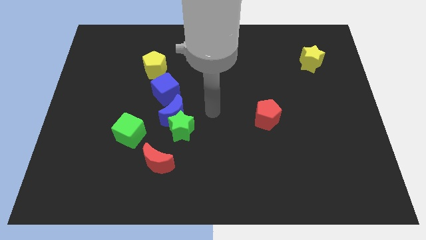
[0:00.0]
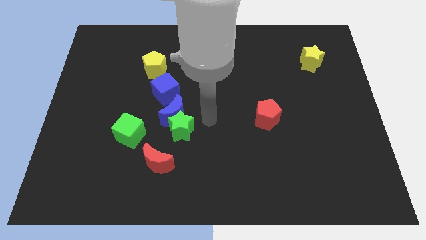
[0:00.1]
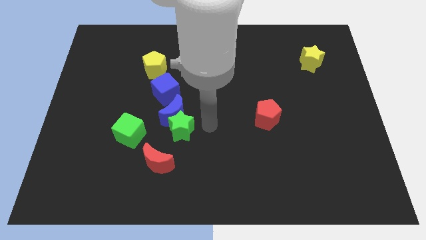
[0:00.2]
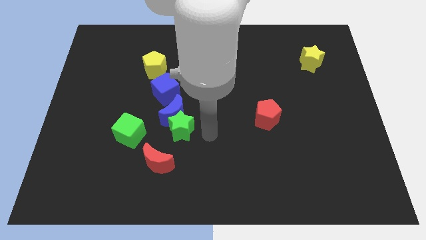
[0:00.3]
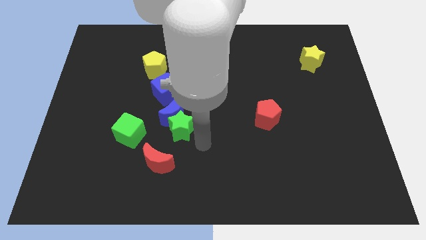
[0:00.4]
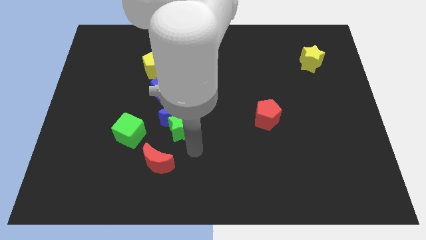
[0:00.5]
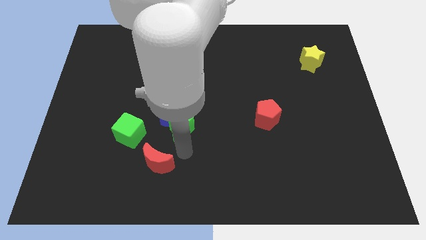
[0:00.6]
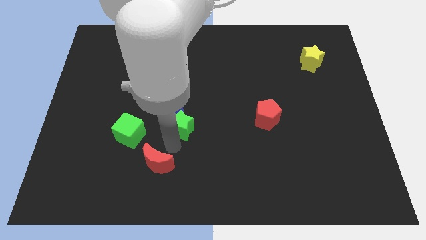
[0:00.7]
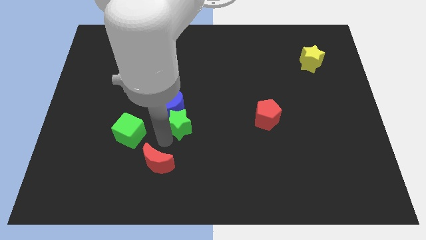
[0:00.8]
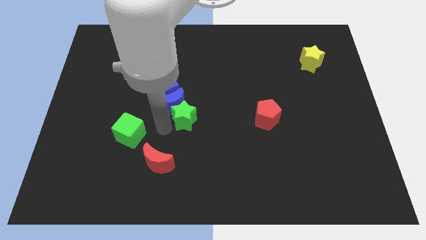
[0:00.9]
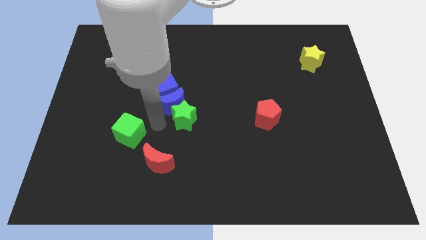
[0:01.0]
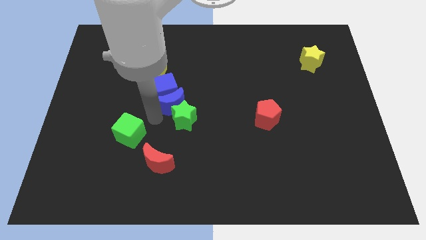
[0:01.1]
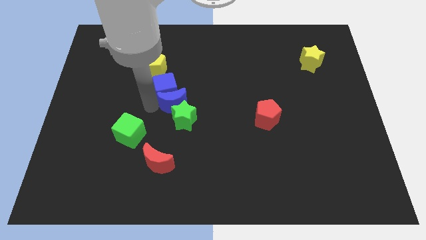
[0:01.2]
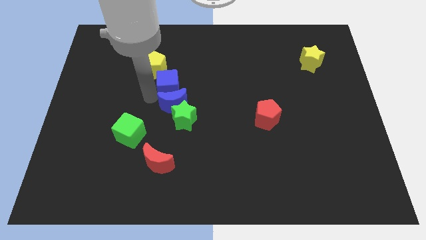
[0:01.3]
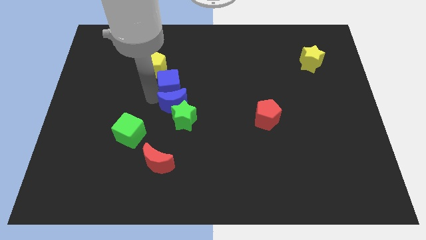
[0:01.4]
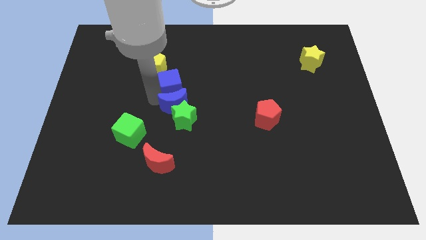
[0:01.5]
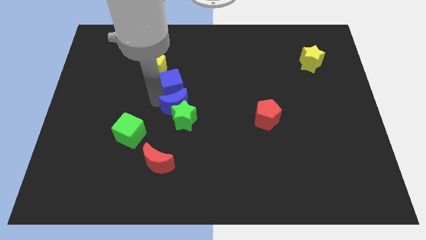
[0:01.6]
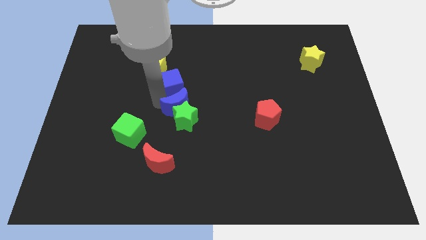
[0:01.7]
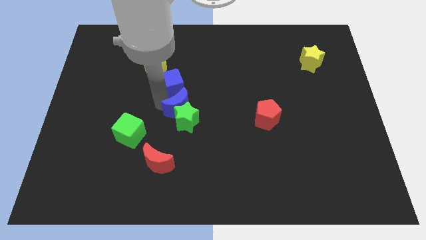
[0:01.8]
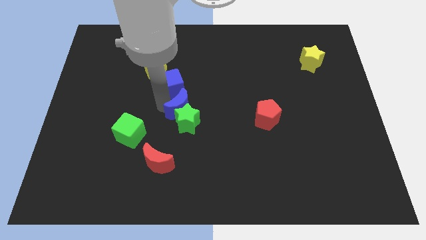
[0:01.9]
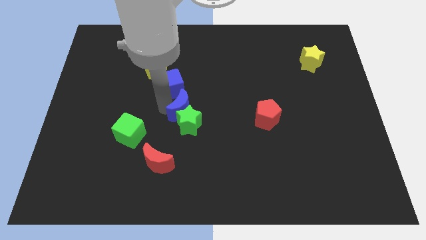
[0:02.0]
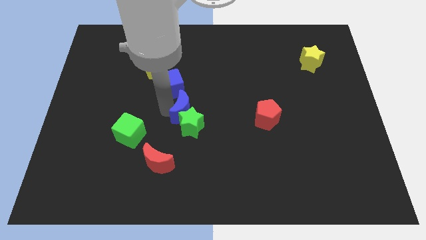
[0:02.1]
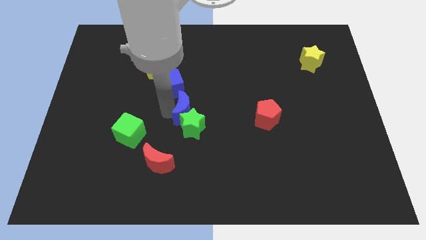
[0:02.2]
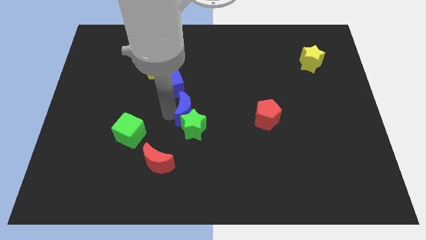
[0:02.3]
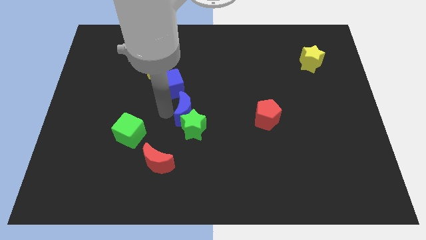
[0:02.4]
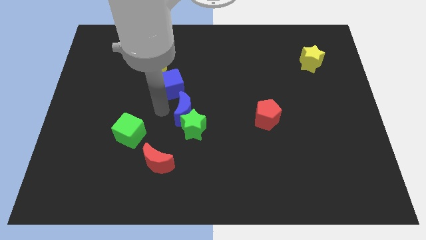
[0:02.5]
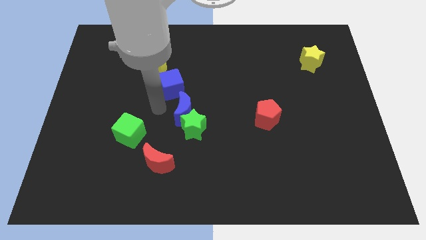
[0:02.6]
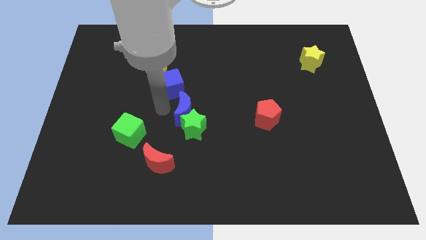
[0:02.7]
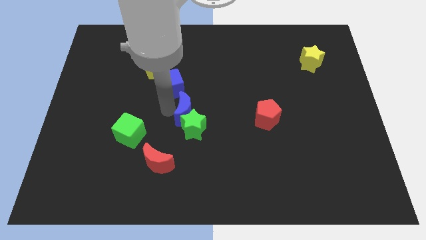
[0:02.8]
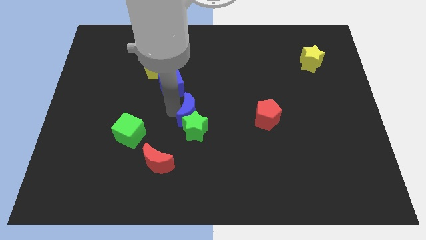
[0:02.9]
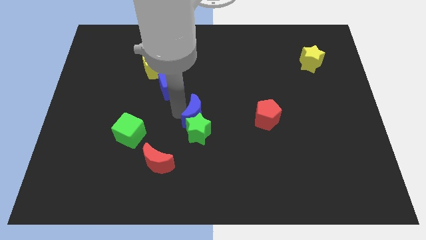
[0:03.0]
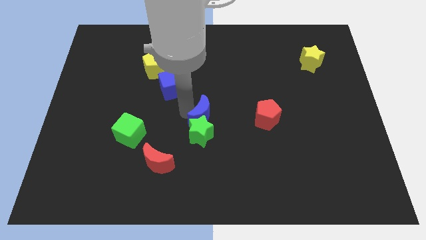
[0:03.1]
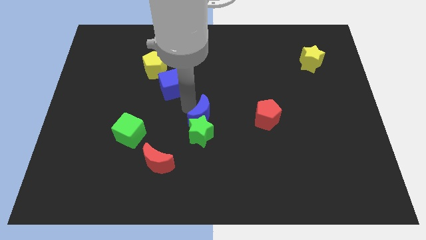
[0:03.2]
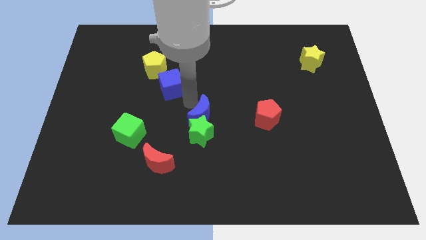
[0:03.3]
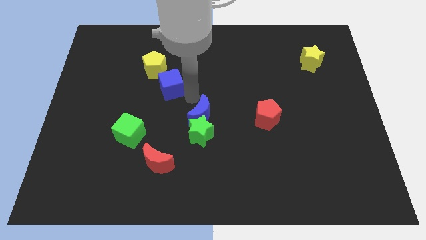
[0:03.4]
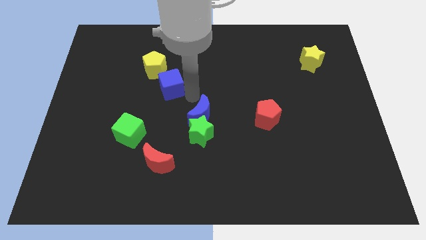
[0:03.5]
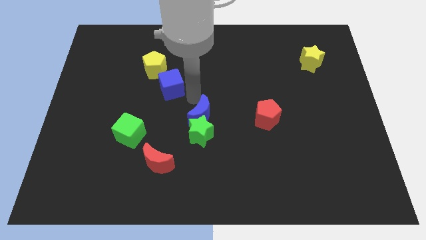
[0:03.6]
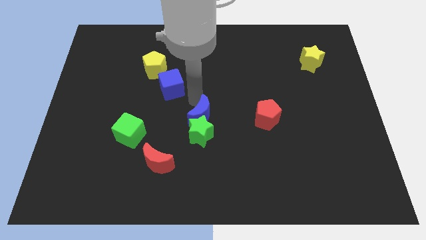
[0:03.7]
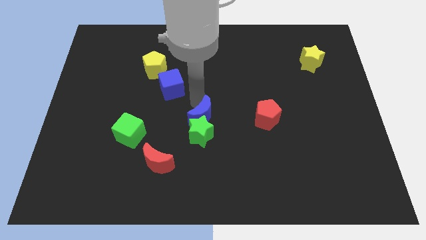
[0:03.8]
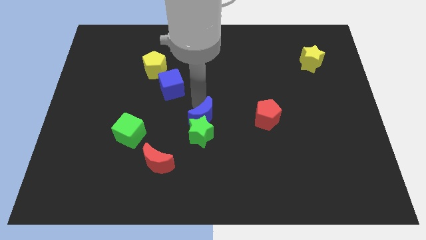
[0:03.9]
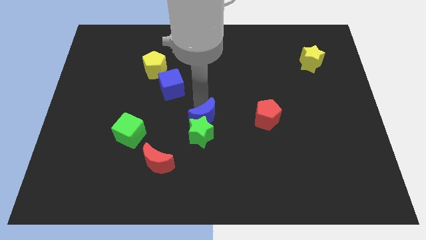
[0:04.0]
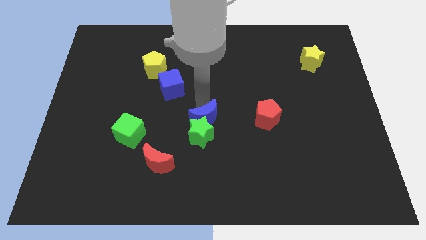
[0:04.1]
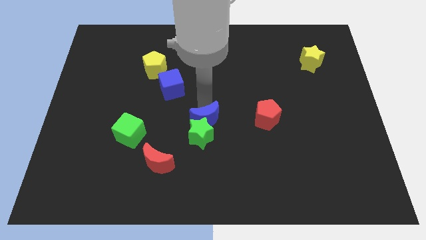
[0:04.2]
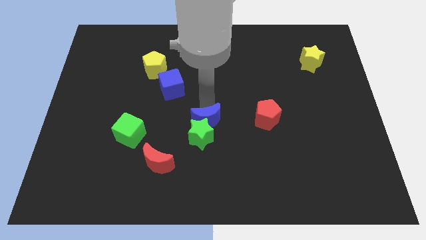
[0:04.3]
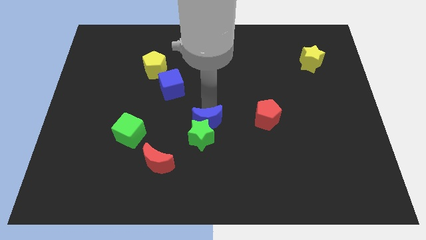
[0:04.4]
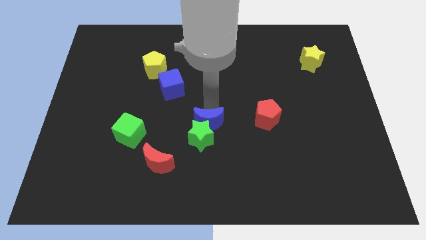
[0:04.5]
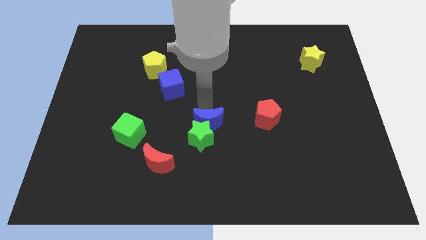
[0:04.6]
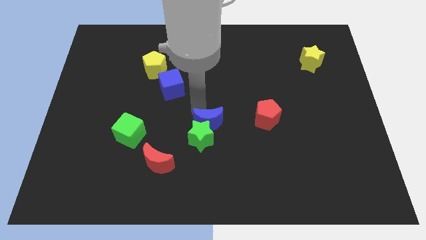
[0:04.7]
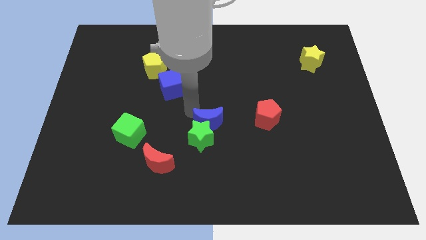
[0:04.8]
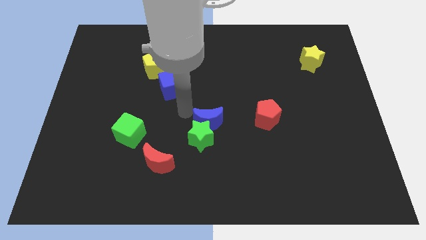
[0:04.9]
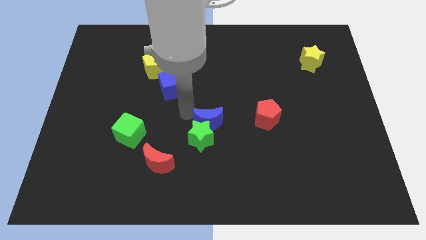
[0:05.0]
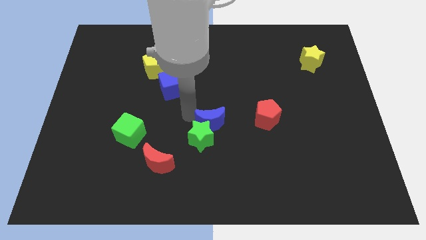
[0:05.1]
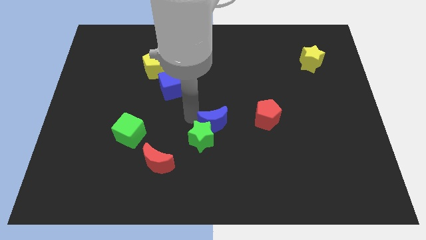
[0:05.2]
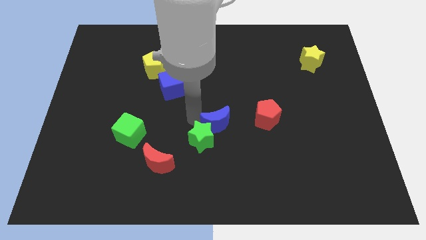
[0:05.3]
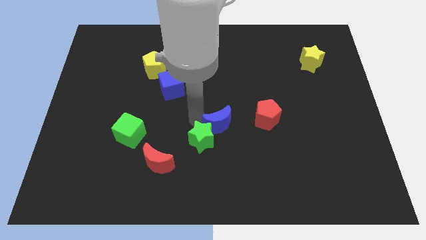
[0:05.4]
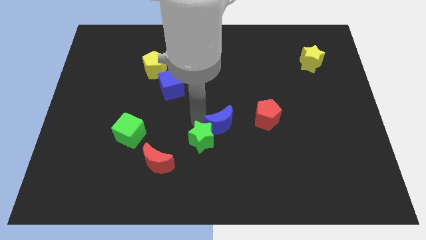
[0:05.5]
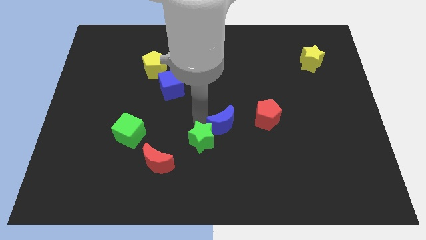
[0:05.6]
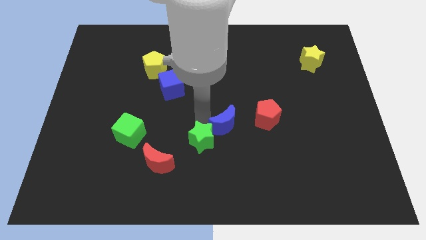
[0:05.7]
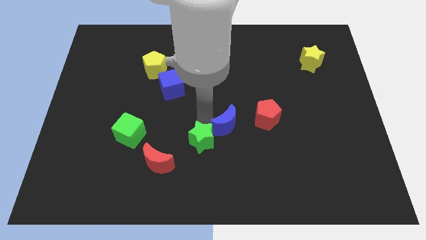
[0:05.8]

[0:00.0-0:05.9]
move the blue moon away from the green star and blue cube

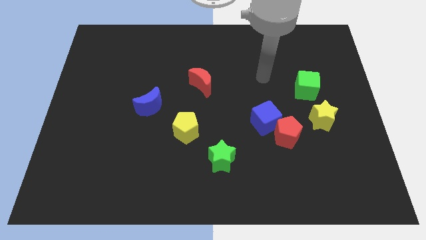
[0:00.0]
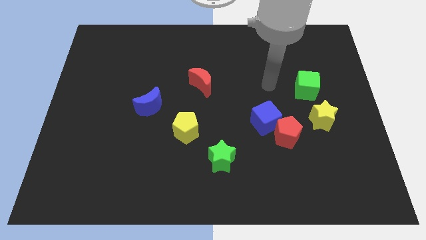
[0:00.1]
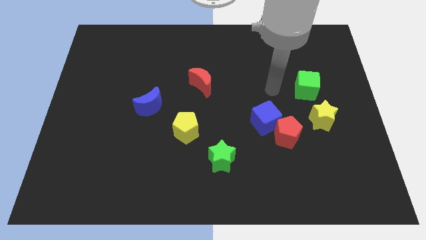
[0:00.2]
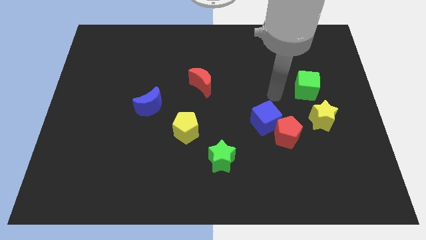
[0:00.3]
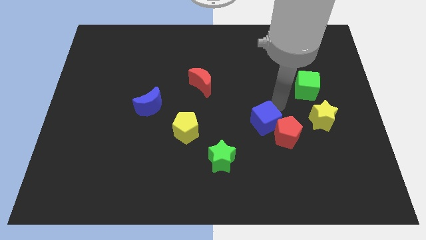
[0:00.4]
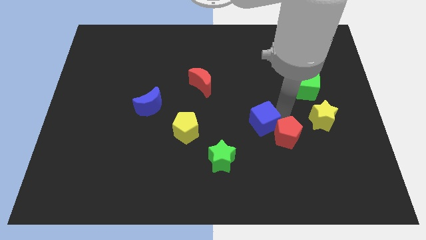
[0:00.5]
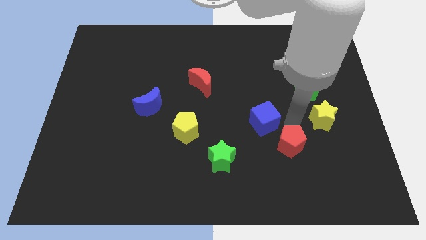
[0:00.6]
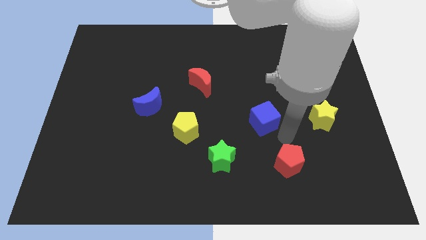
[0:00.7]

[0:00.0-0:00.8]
move the blue cube away from the red pentagon

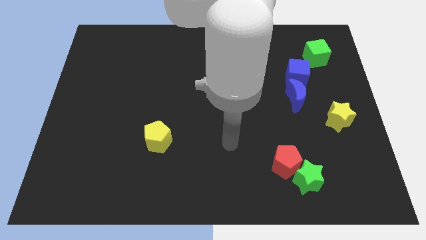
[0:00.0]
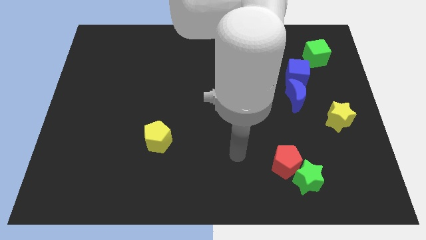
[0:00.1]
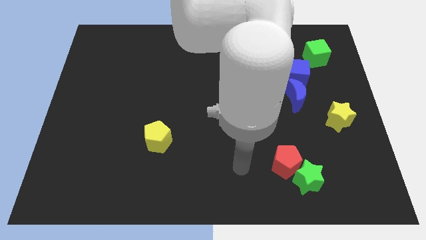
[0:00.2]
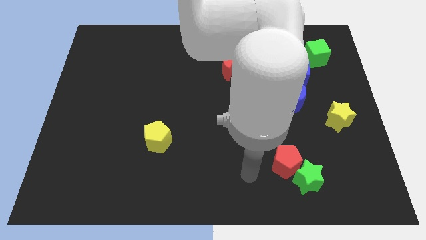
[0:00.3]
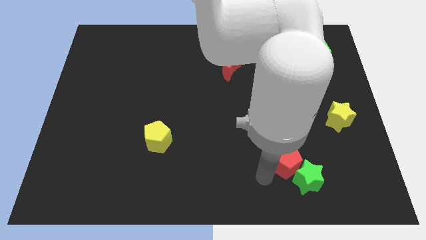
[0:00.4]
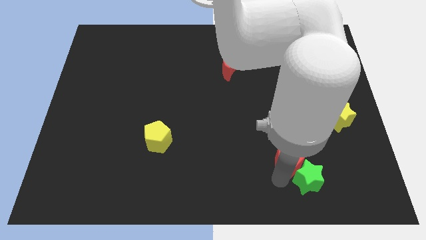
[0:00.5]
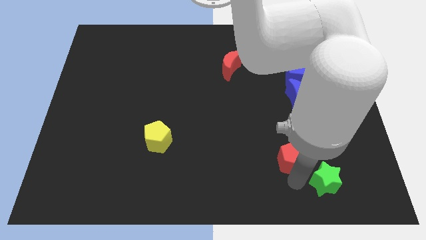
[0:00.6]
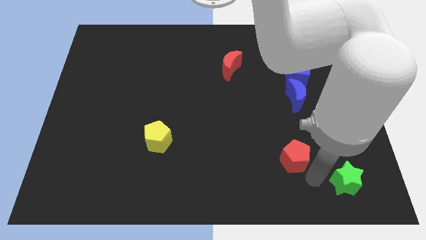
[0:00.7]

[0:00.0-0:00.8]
move the red pentagon away from the green star

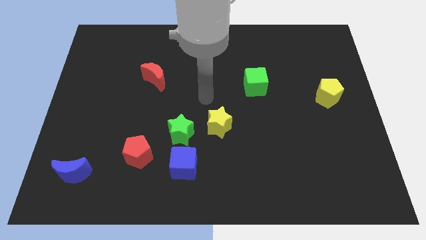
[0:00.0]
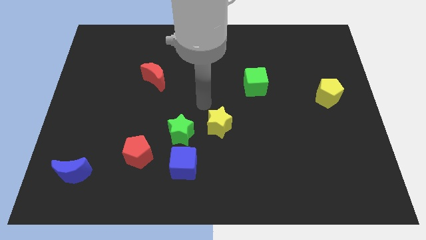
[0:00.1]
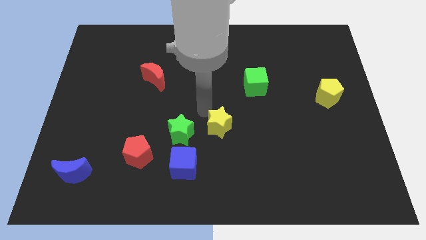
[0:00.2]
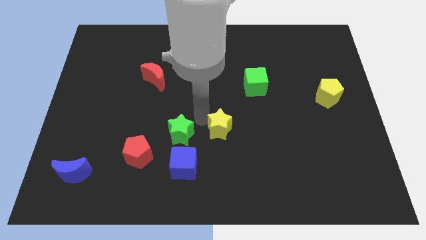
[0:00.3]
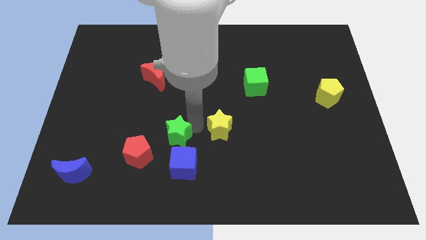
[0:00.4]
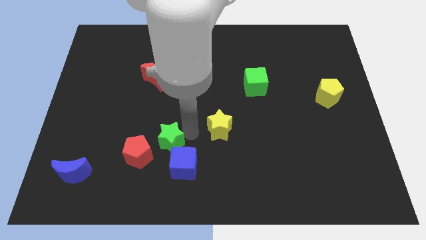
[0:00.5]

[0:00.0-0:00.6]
separate the yellow star from the green star

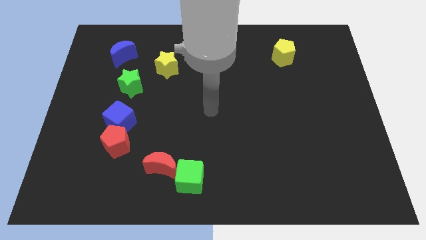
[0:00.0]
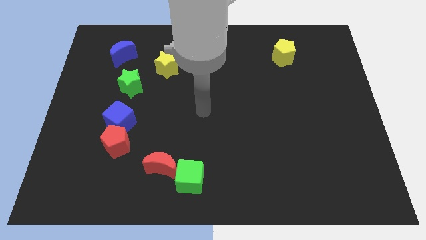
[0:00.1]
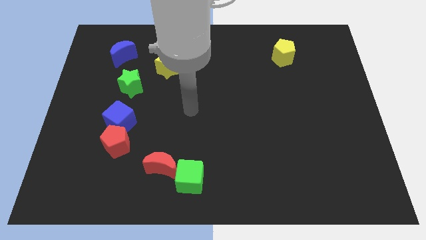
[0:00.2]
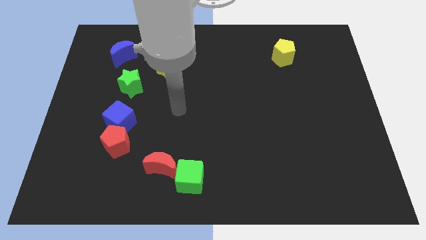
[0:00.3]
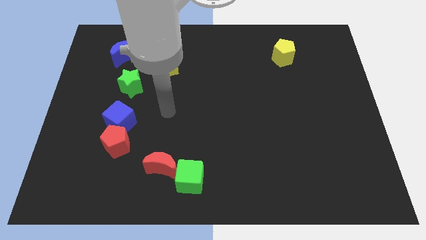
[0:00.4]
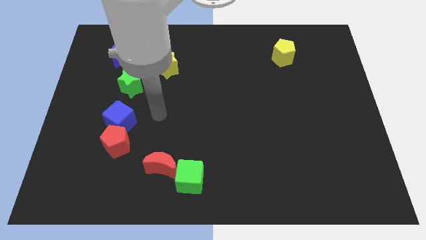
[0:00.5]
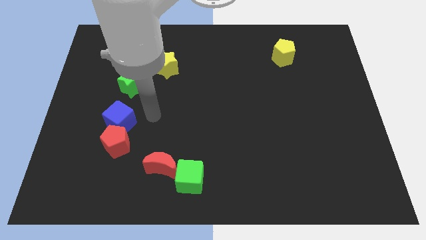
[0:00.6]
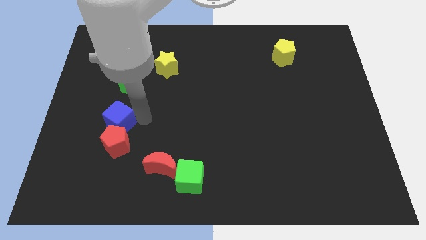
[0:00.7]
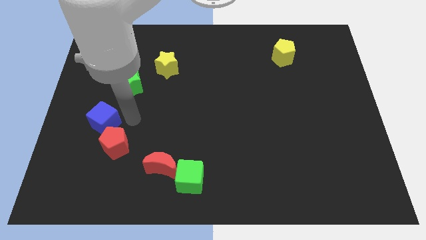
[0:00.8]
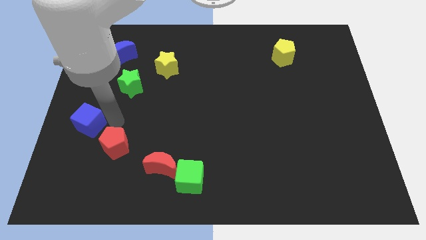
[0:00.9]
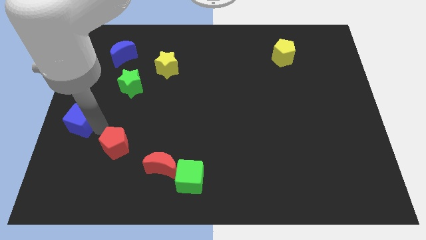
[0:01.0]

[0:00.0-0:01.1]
pull the red pentagon apart from the blue cube

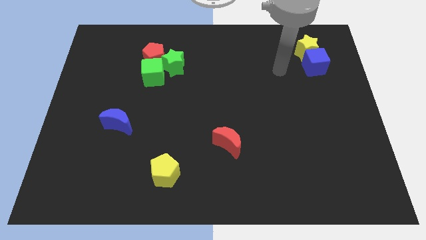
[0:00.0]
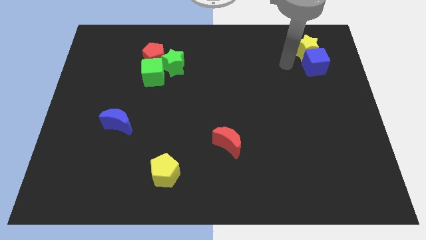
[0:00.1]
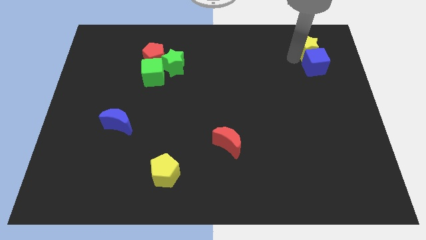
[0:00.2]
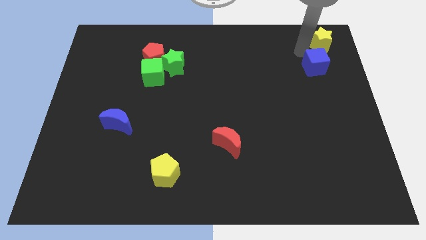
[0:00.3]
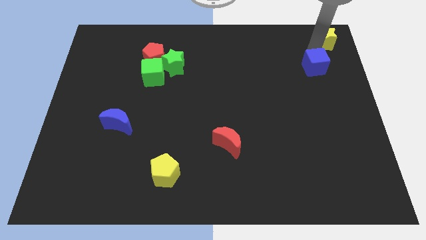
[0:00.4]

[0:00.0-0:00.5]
move the blue cube away from the yellow star
